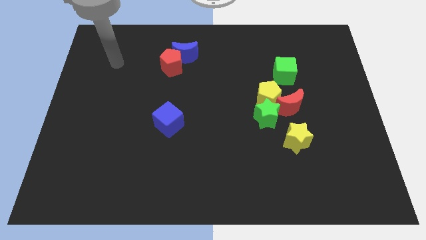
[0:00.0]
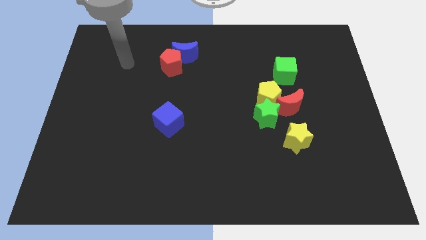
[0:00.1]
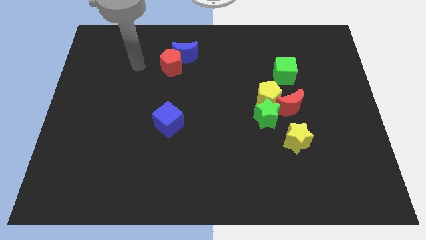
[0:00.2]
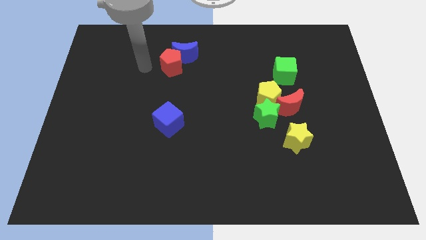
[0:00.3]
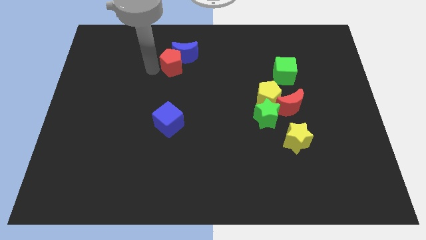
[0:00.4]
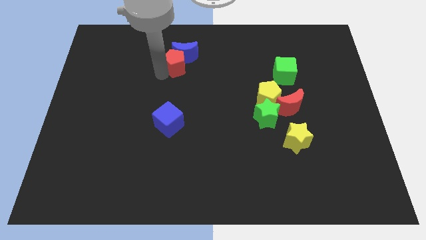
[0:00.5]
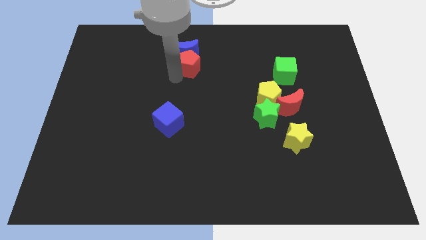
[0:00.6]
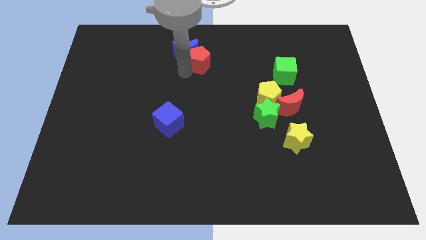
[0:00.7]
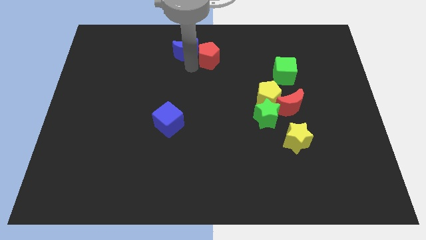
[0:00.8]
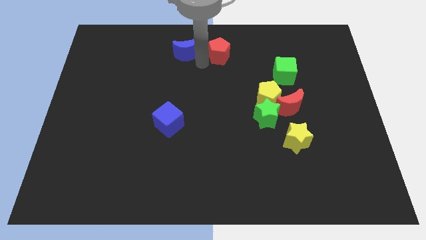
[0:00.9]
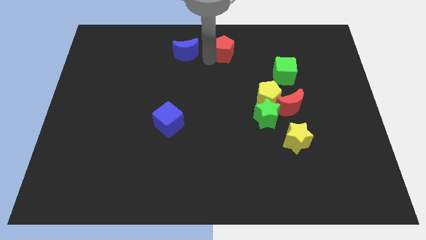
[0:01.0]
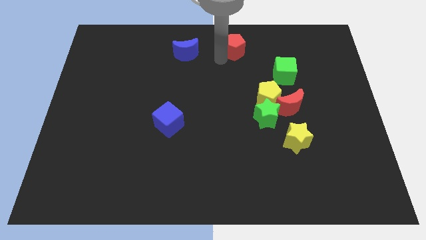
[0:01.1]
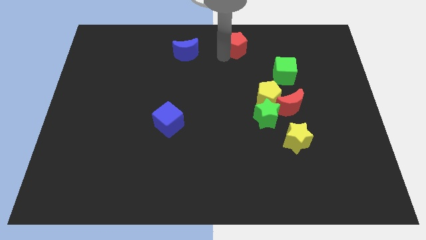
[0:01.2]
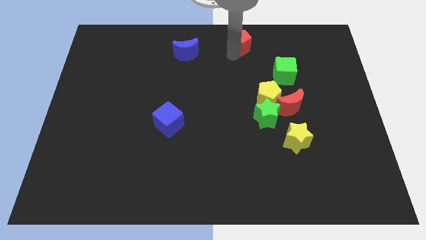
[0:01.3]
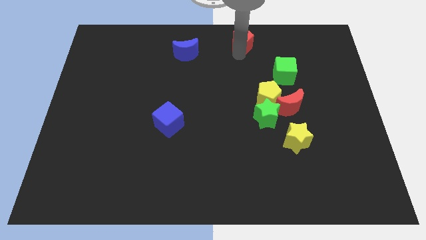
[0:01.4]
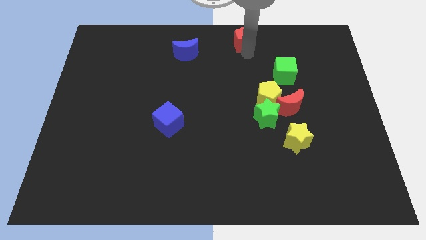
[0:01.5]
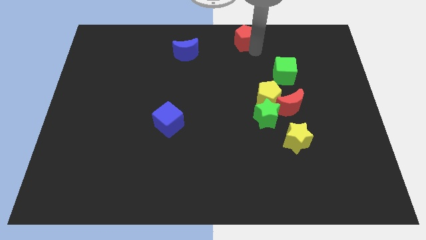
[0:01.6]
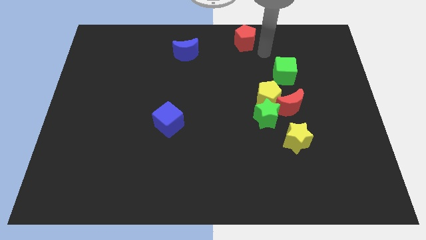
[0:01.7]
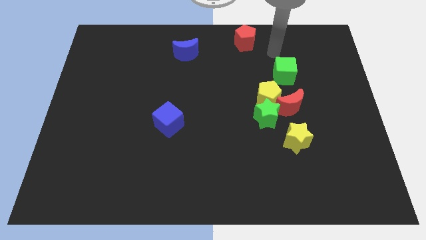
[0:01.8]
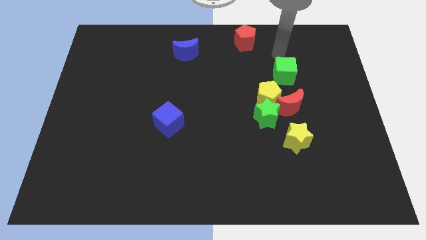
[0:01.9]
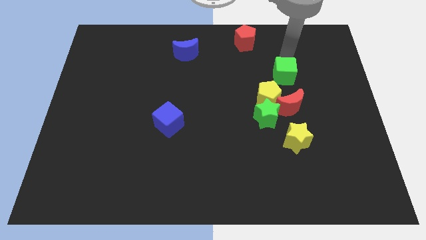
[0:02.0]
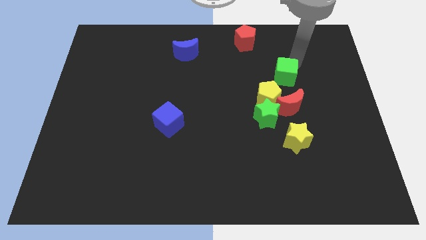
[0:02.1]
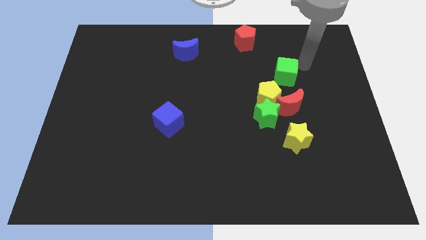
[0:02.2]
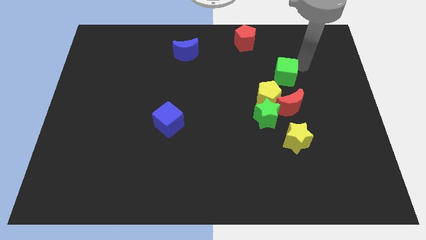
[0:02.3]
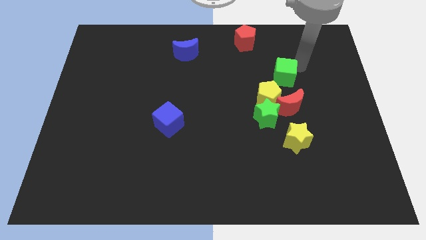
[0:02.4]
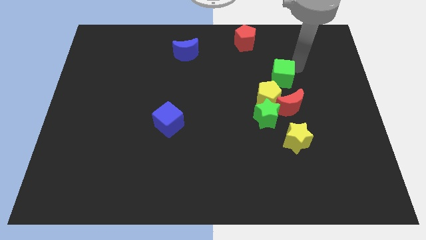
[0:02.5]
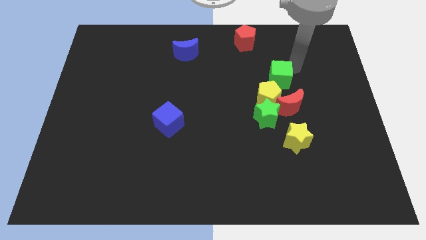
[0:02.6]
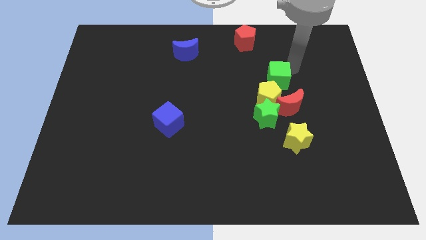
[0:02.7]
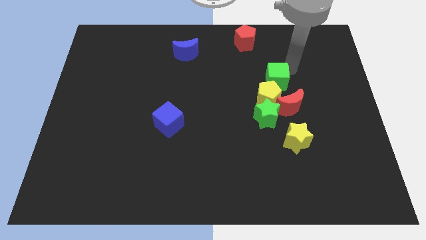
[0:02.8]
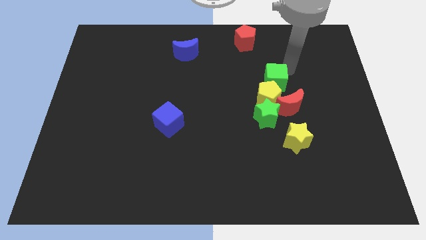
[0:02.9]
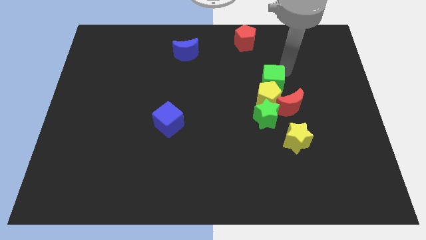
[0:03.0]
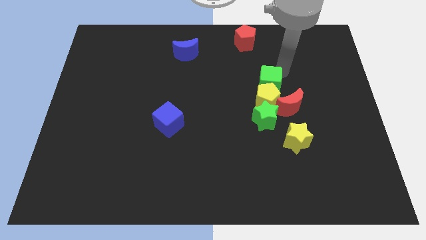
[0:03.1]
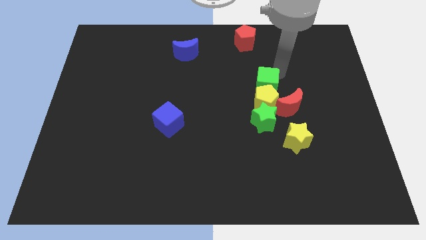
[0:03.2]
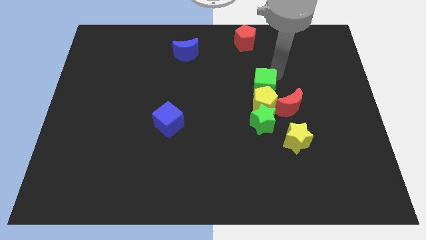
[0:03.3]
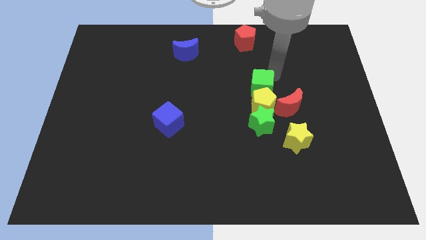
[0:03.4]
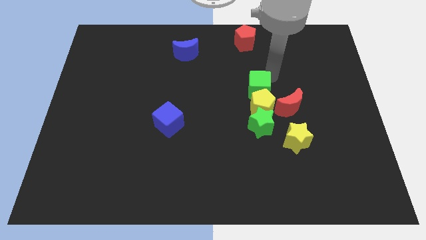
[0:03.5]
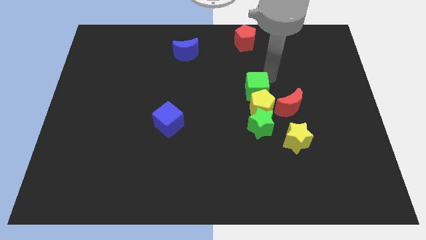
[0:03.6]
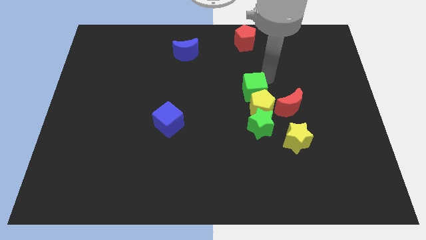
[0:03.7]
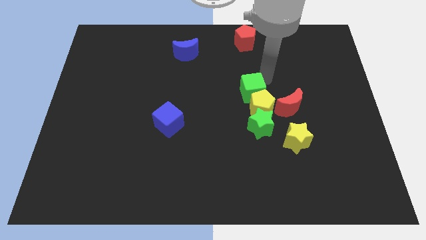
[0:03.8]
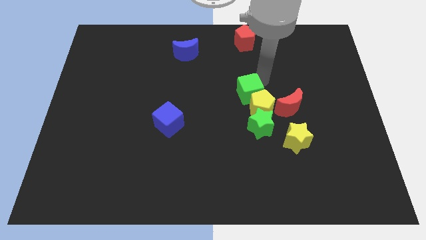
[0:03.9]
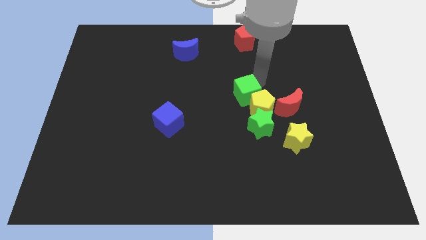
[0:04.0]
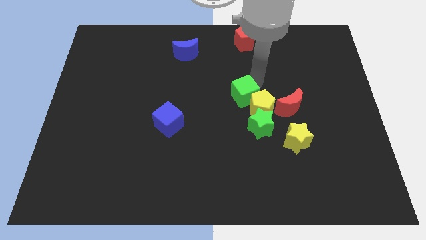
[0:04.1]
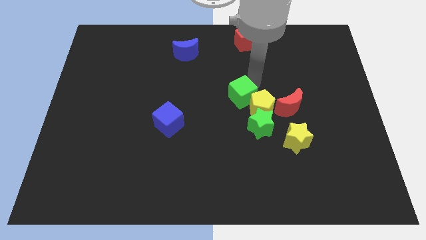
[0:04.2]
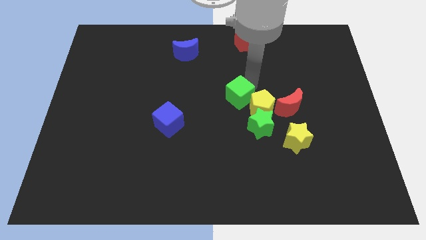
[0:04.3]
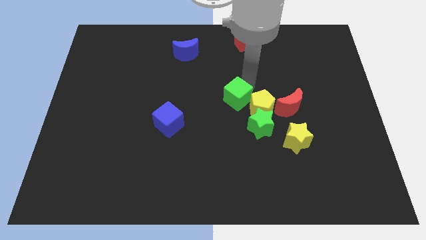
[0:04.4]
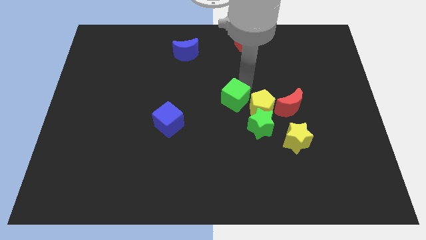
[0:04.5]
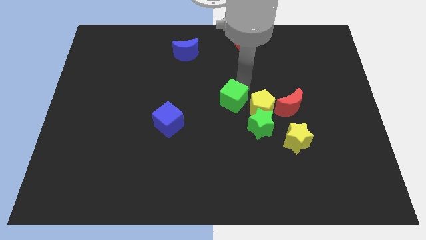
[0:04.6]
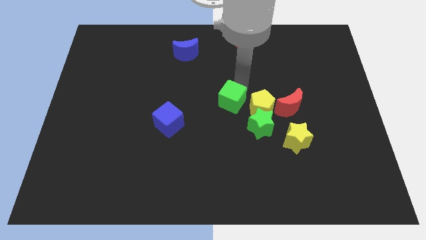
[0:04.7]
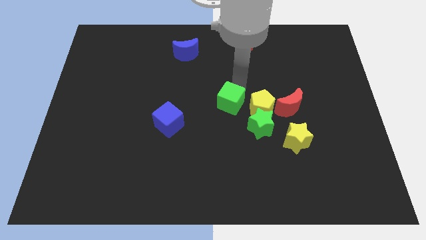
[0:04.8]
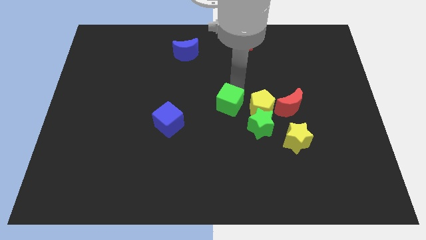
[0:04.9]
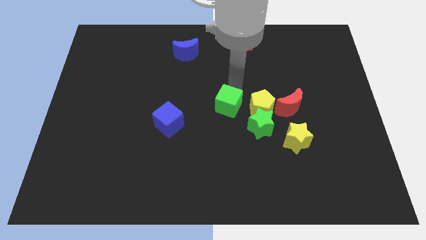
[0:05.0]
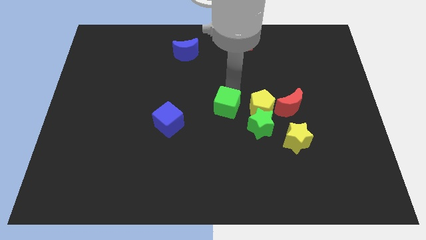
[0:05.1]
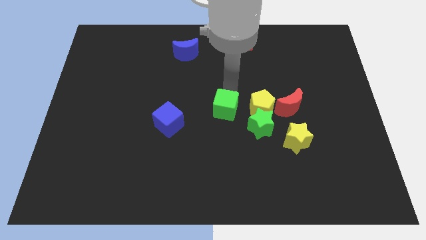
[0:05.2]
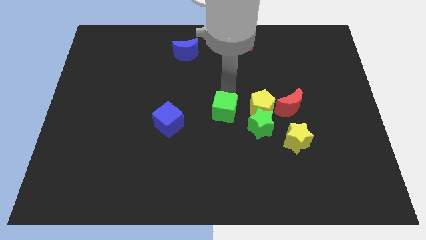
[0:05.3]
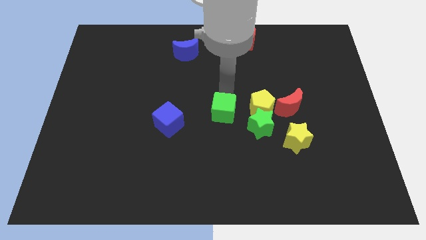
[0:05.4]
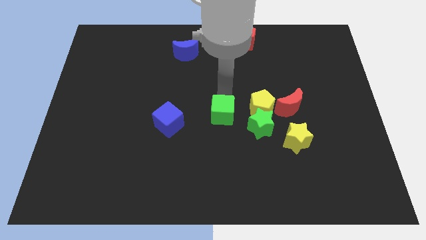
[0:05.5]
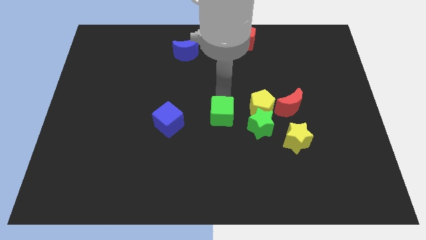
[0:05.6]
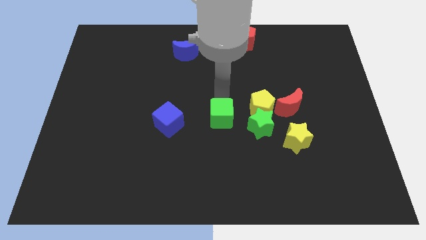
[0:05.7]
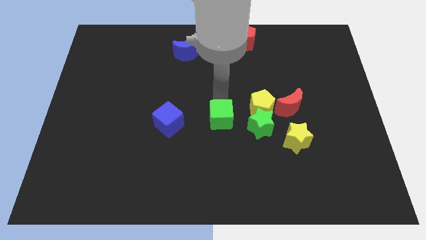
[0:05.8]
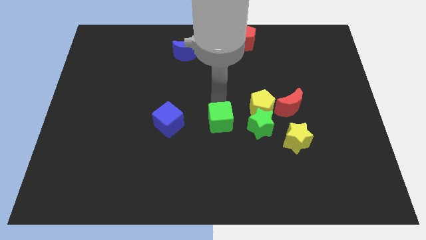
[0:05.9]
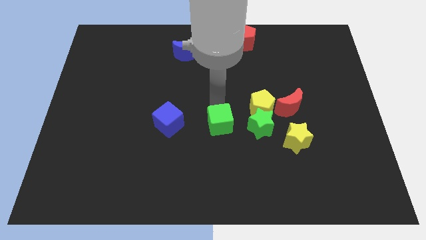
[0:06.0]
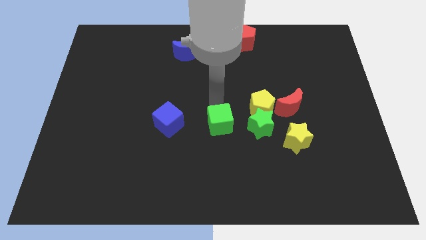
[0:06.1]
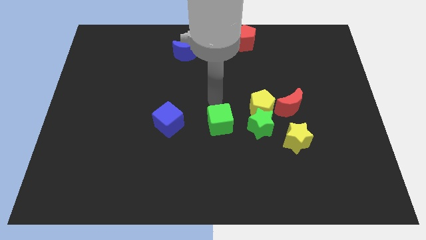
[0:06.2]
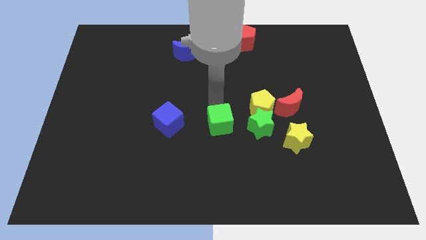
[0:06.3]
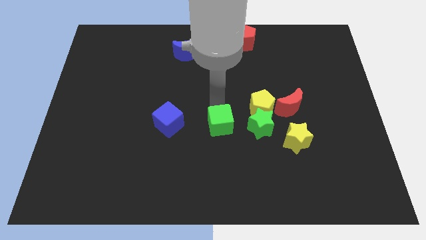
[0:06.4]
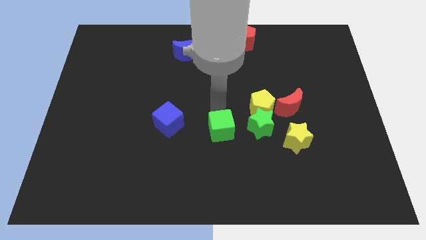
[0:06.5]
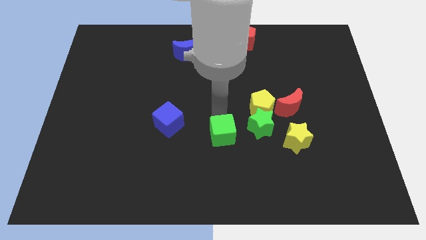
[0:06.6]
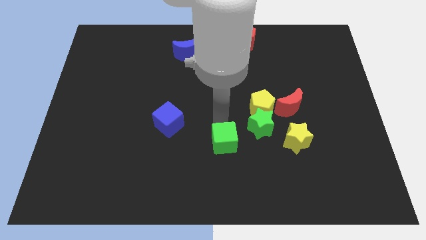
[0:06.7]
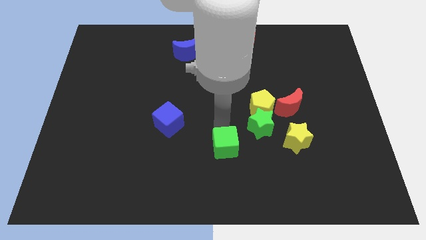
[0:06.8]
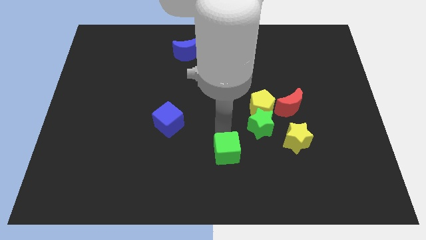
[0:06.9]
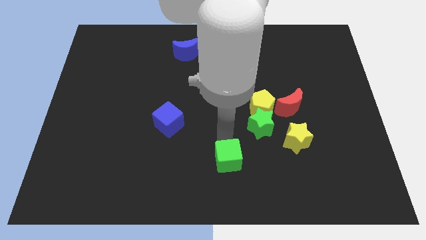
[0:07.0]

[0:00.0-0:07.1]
move the green cube to the bottom

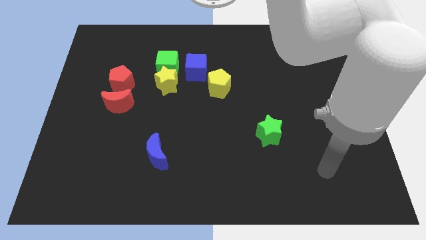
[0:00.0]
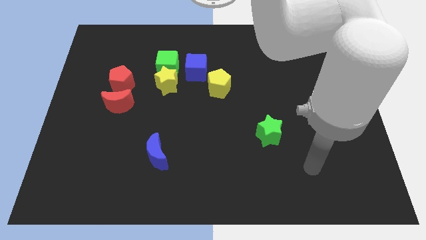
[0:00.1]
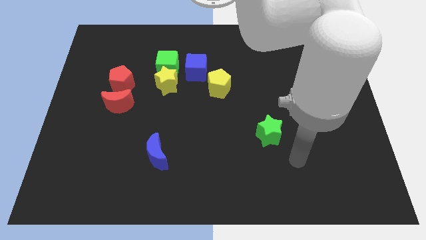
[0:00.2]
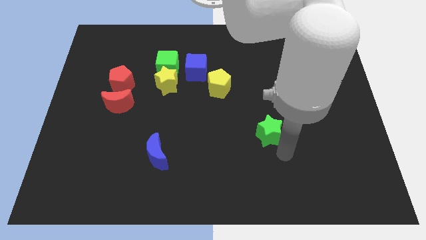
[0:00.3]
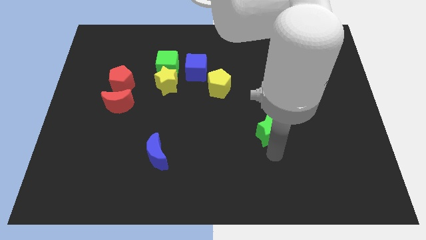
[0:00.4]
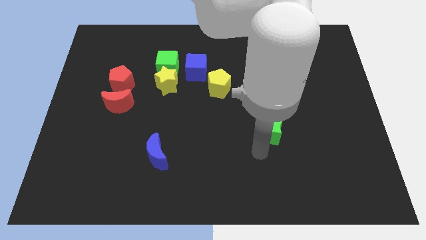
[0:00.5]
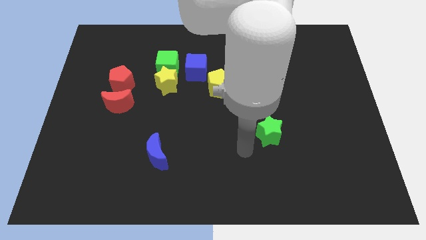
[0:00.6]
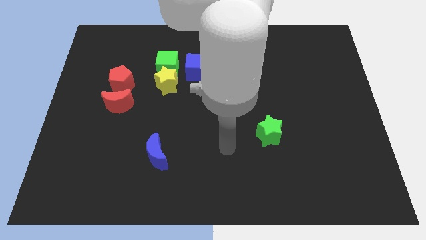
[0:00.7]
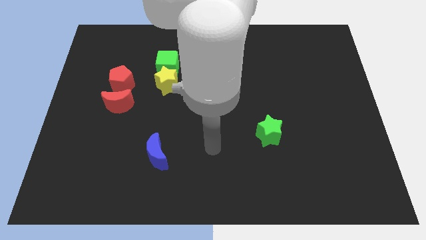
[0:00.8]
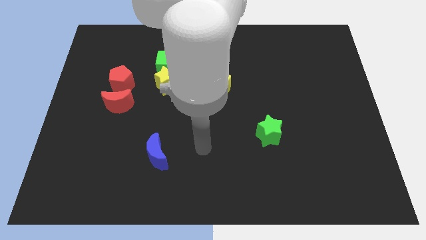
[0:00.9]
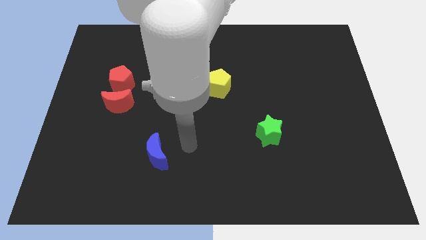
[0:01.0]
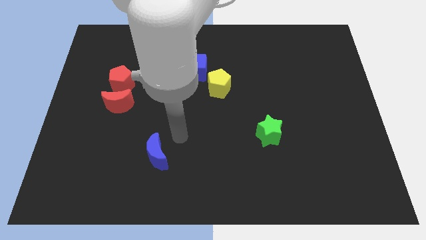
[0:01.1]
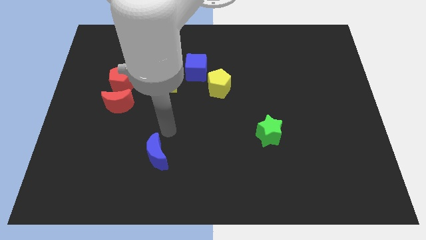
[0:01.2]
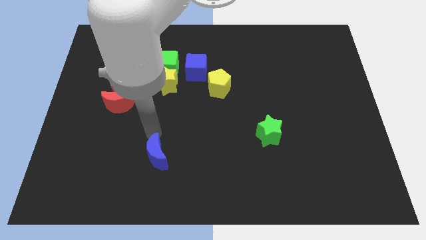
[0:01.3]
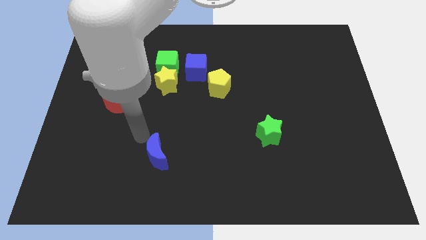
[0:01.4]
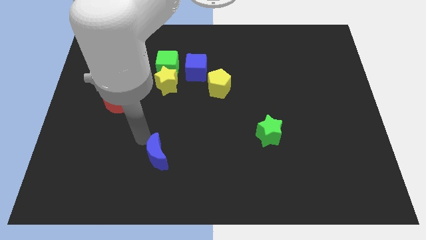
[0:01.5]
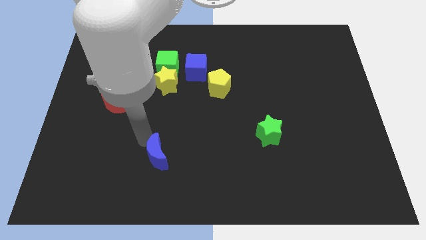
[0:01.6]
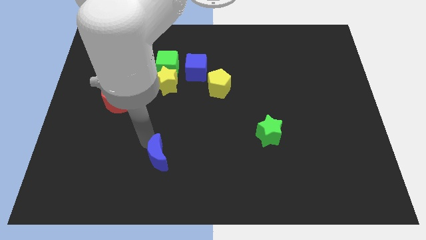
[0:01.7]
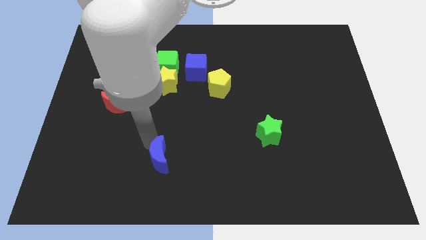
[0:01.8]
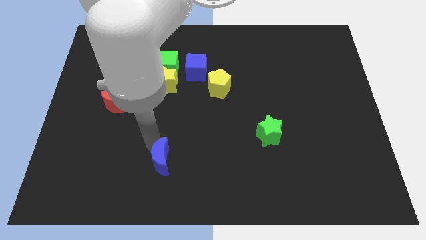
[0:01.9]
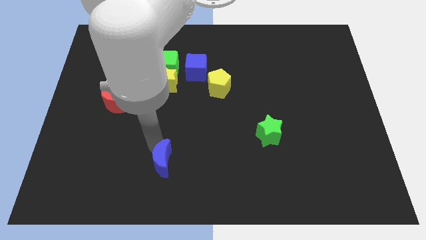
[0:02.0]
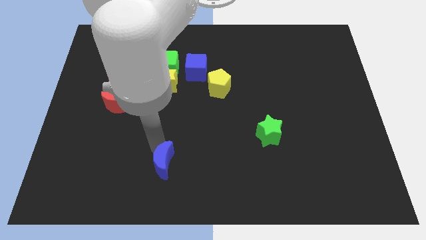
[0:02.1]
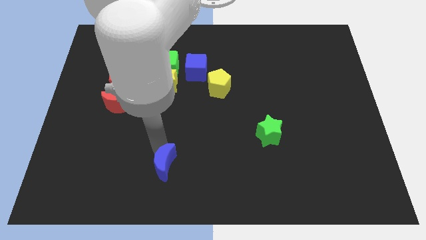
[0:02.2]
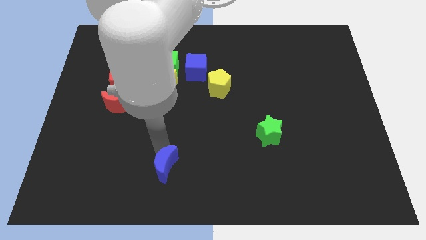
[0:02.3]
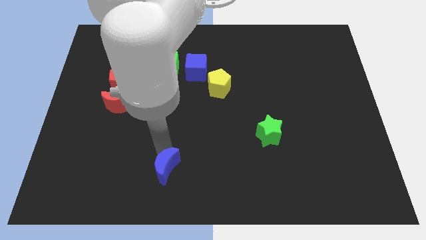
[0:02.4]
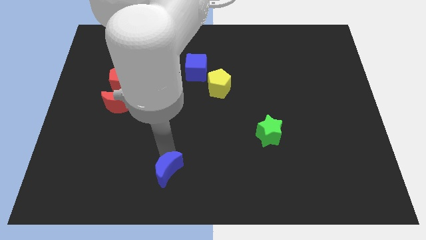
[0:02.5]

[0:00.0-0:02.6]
move the blue moon to the bottom side
